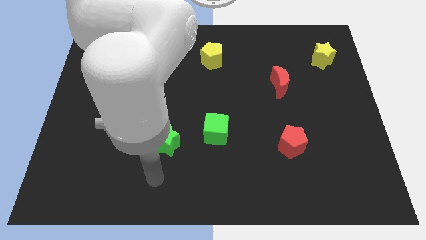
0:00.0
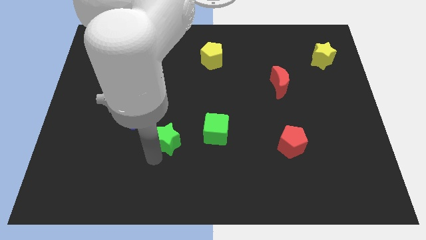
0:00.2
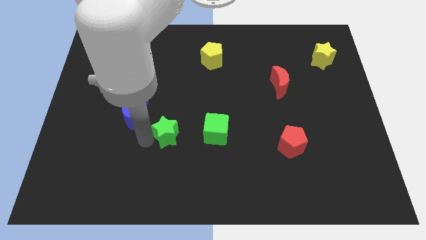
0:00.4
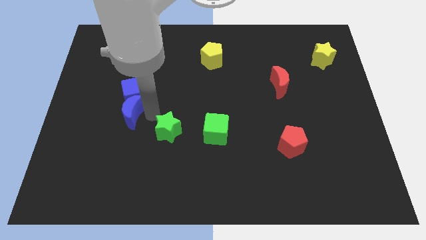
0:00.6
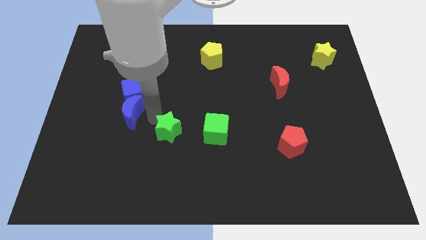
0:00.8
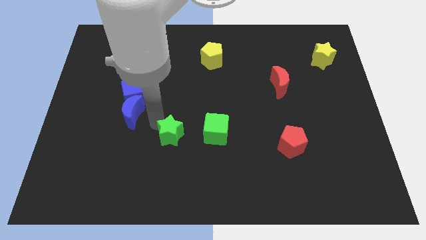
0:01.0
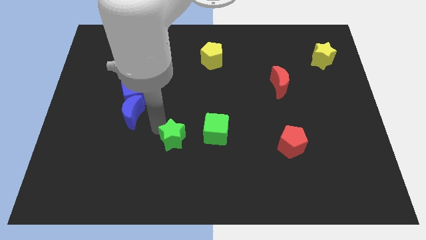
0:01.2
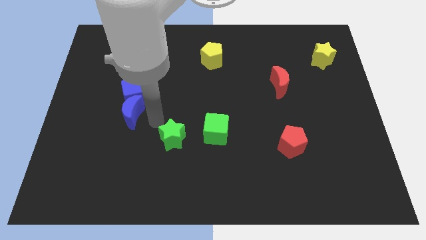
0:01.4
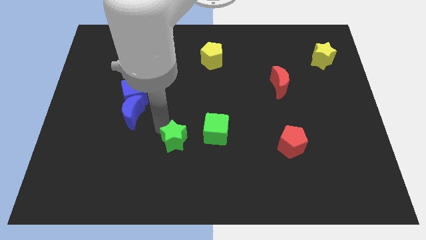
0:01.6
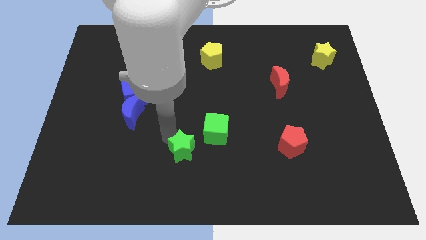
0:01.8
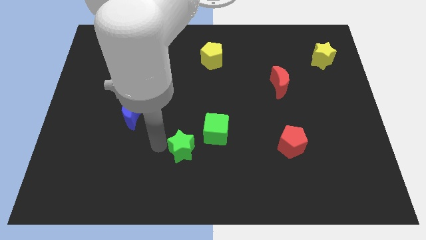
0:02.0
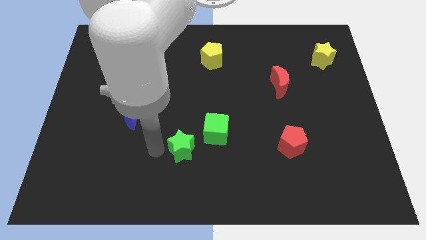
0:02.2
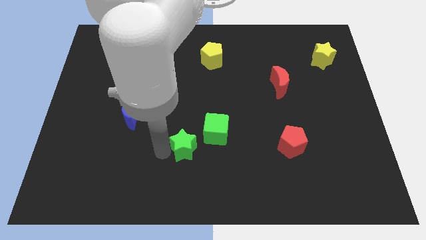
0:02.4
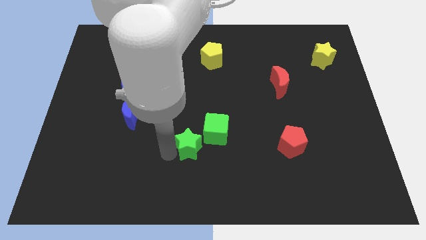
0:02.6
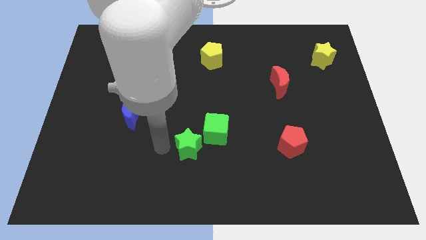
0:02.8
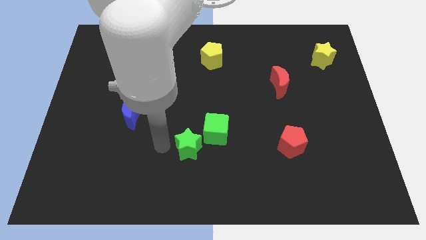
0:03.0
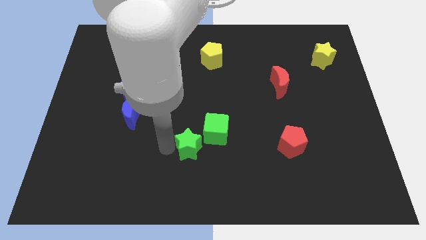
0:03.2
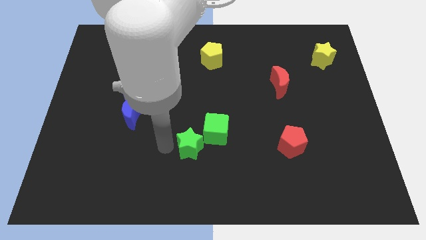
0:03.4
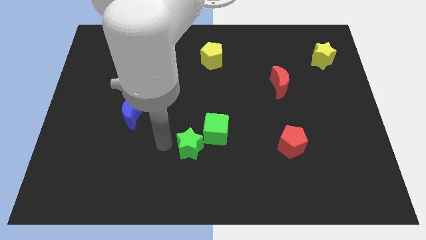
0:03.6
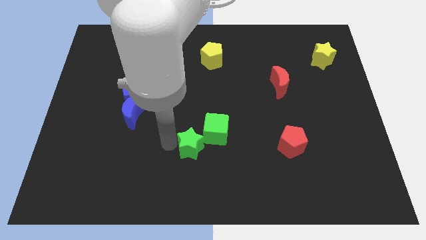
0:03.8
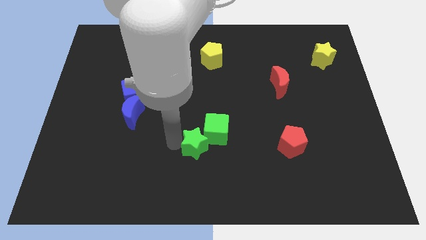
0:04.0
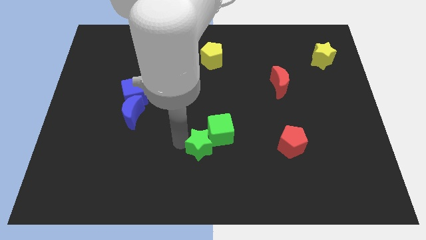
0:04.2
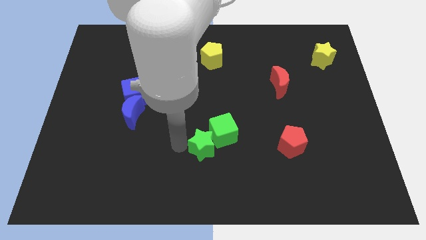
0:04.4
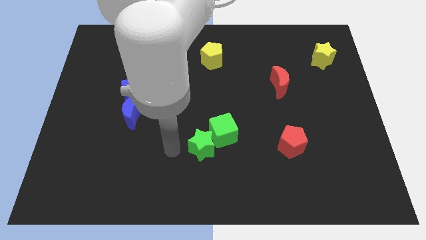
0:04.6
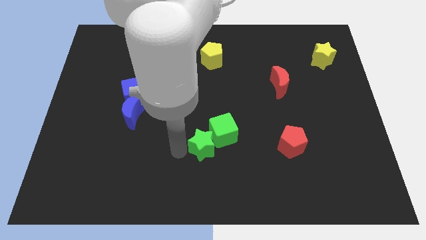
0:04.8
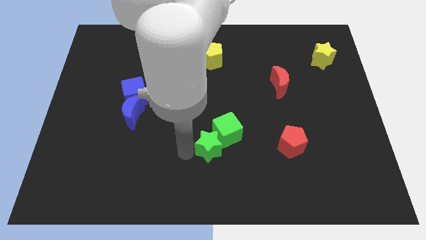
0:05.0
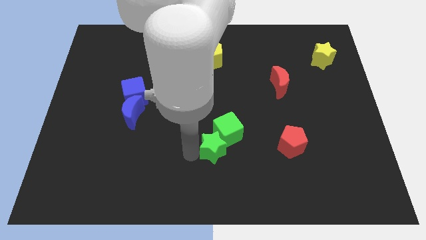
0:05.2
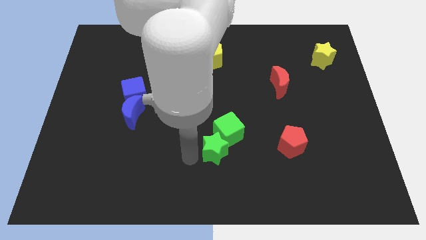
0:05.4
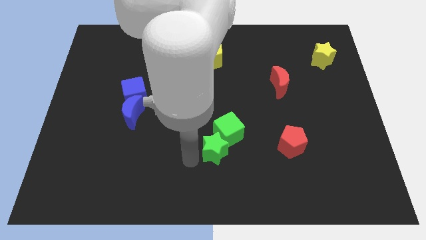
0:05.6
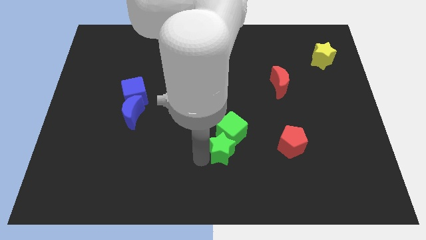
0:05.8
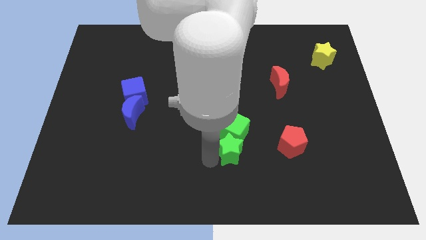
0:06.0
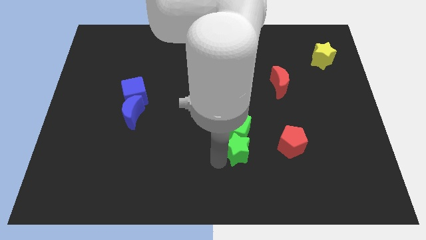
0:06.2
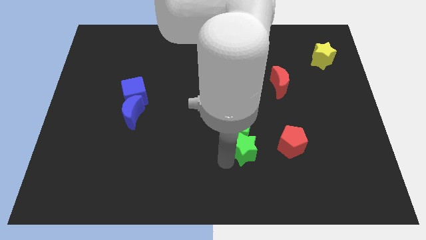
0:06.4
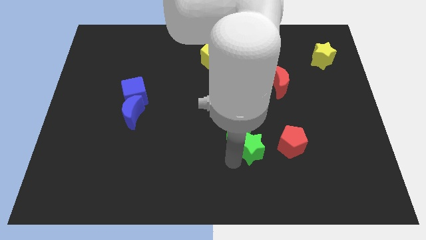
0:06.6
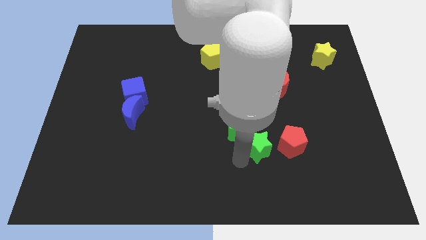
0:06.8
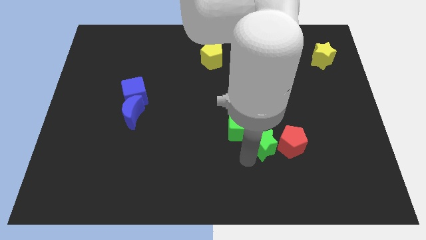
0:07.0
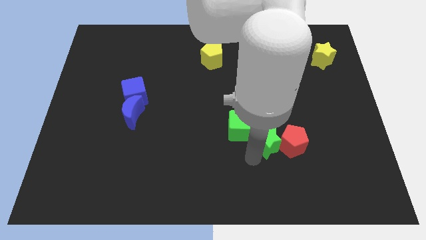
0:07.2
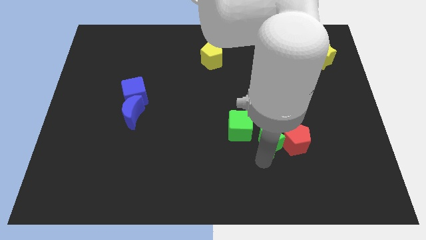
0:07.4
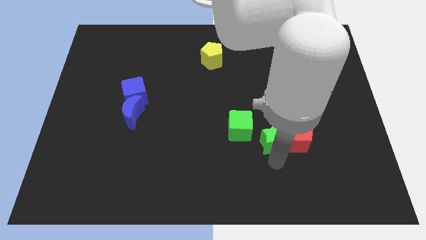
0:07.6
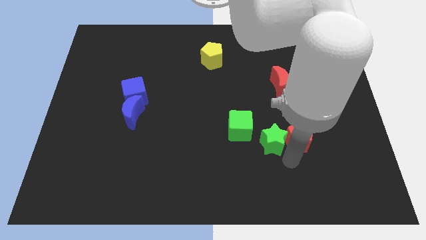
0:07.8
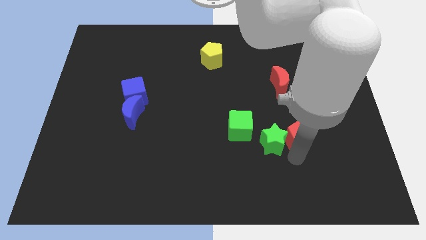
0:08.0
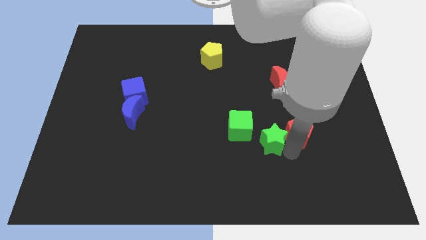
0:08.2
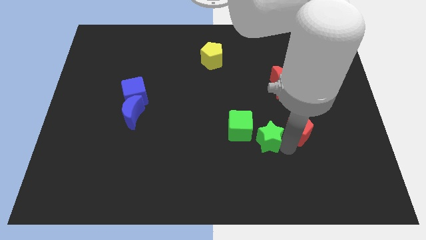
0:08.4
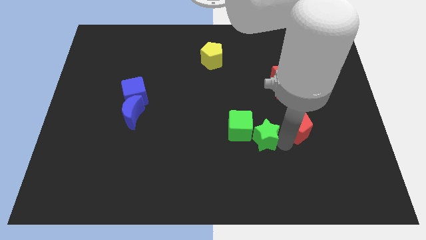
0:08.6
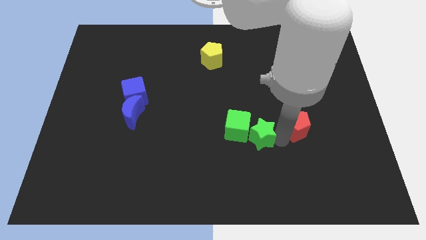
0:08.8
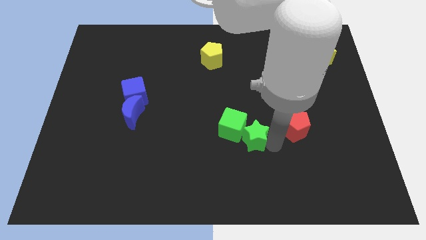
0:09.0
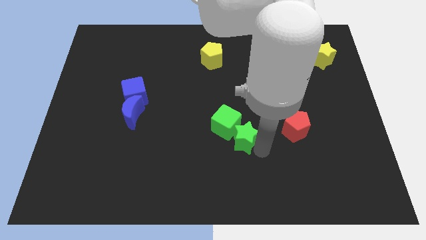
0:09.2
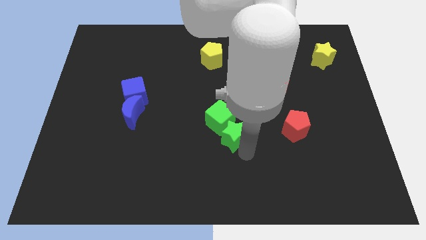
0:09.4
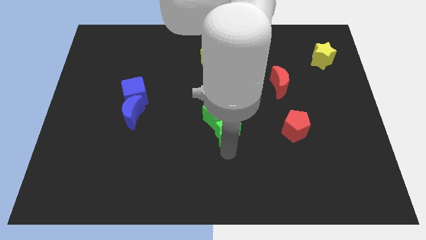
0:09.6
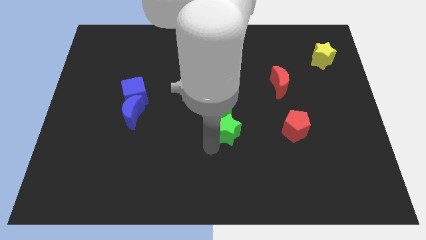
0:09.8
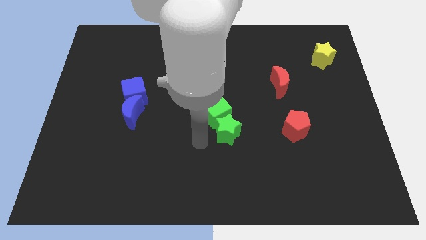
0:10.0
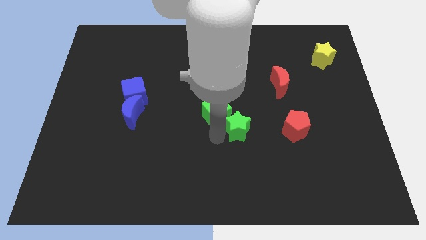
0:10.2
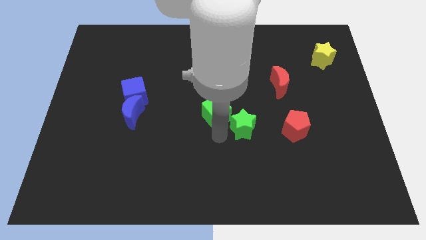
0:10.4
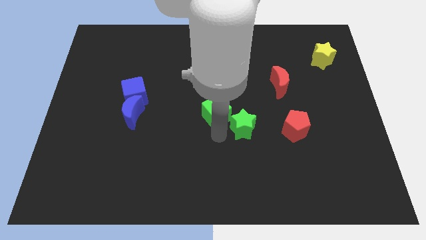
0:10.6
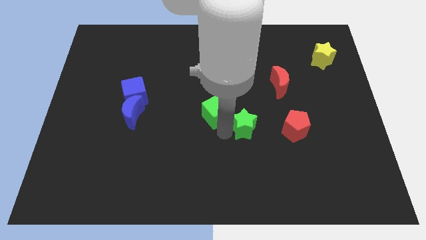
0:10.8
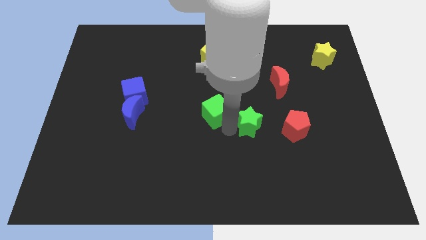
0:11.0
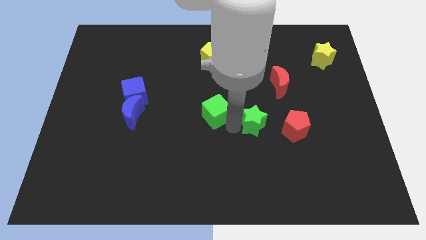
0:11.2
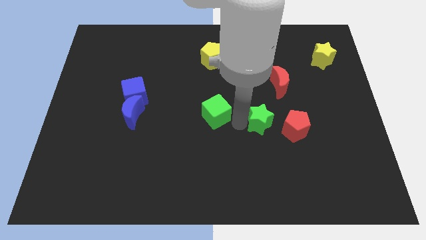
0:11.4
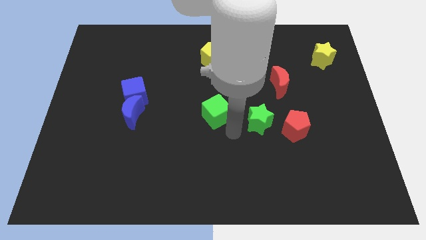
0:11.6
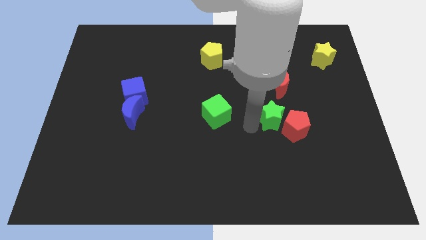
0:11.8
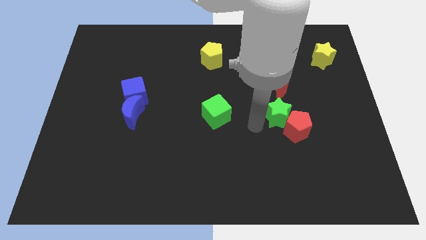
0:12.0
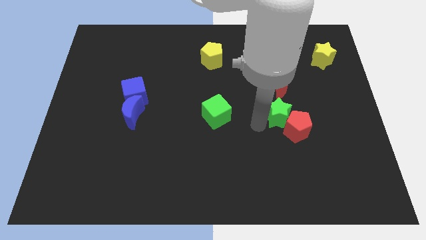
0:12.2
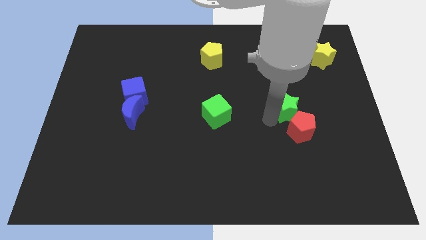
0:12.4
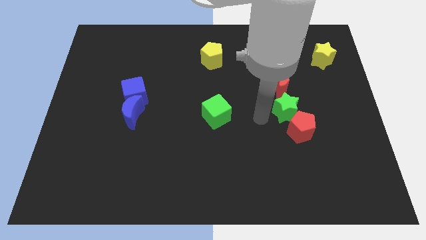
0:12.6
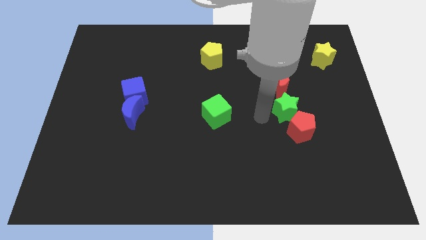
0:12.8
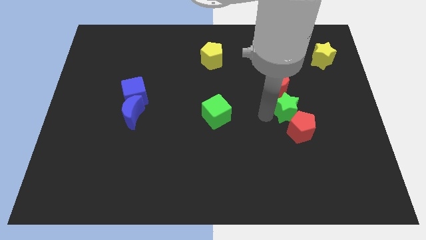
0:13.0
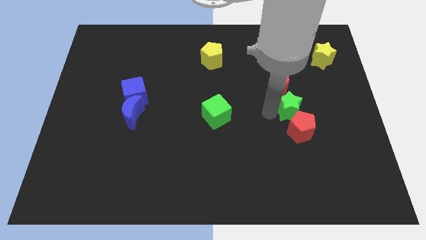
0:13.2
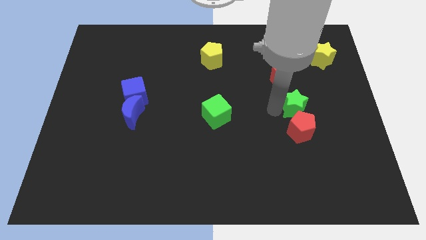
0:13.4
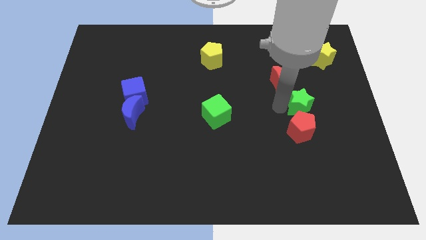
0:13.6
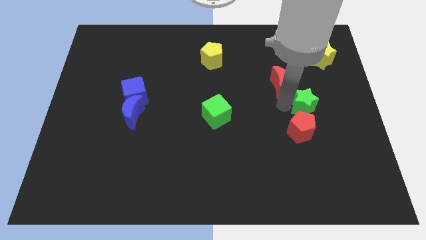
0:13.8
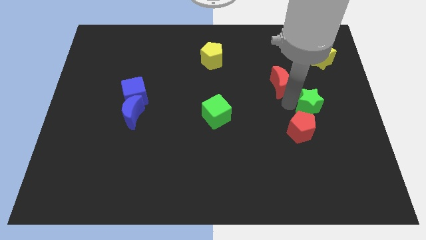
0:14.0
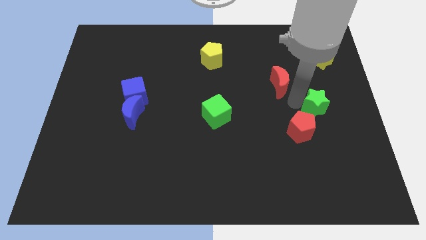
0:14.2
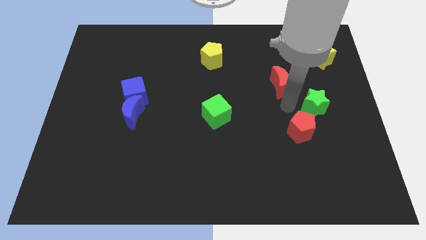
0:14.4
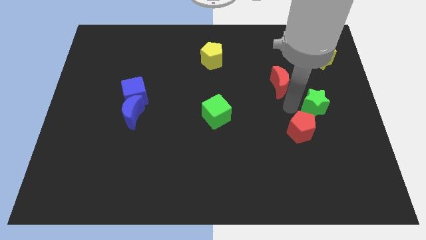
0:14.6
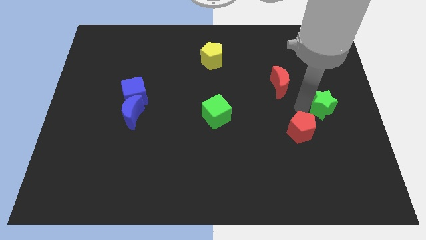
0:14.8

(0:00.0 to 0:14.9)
put the green star to the right side
